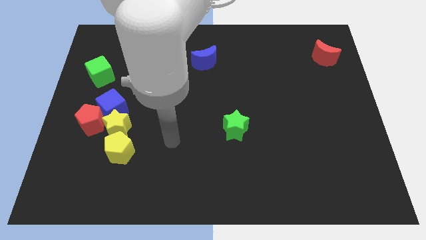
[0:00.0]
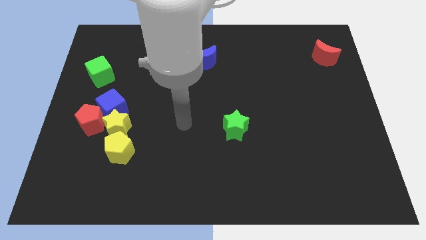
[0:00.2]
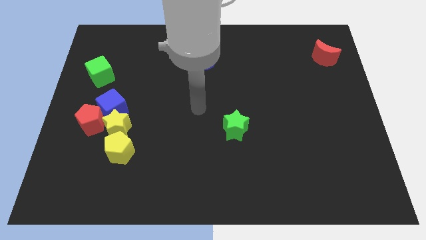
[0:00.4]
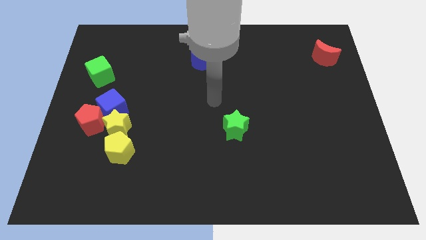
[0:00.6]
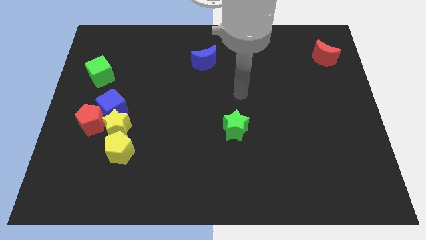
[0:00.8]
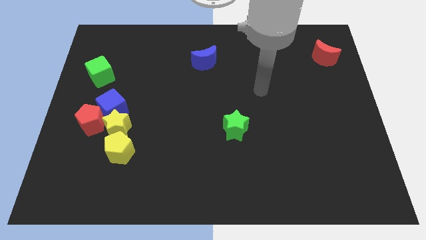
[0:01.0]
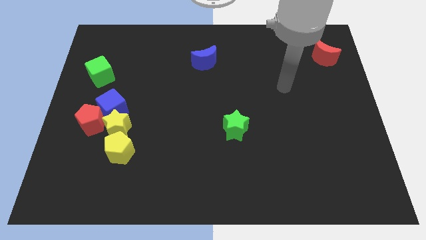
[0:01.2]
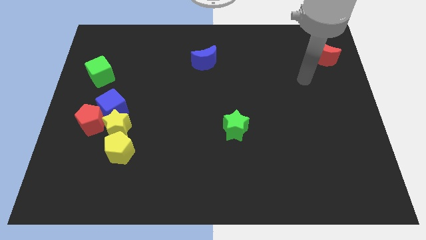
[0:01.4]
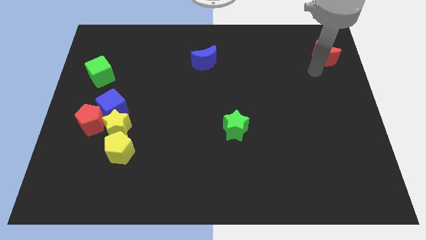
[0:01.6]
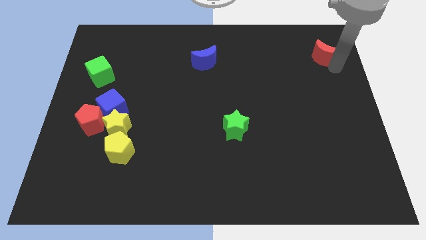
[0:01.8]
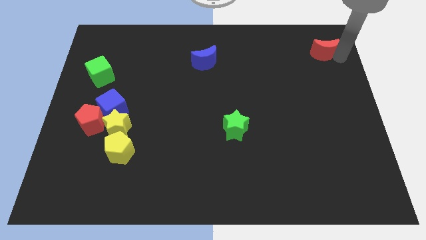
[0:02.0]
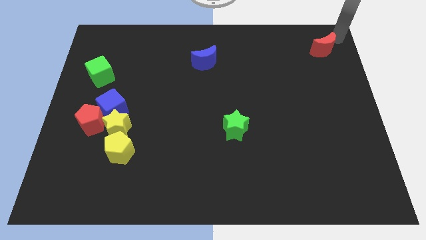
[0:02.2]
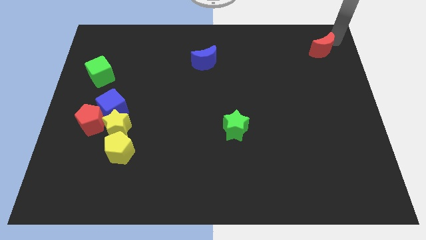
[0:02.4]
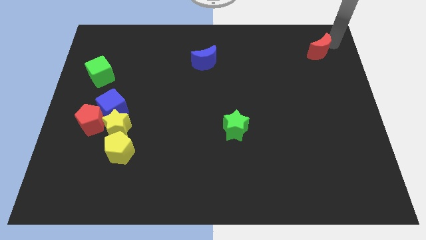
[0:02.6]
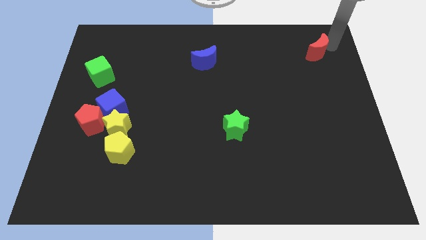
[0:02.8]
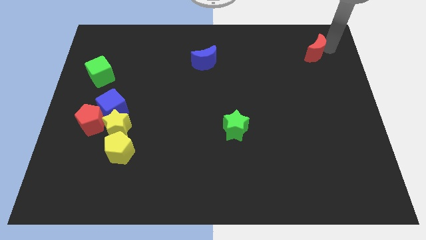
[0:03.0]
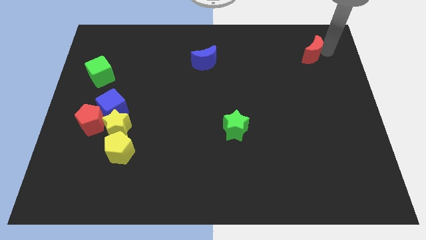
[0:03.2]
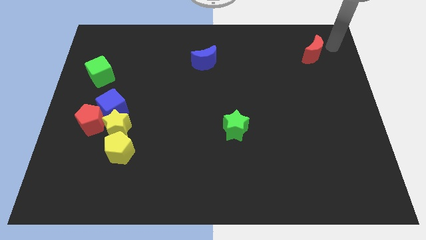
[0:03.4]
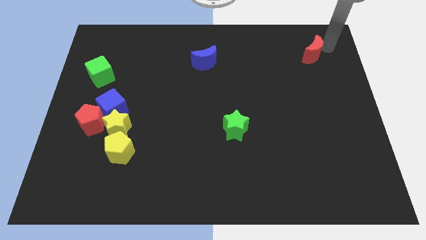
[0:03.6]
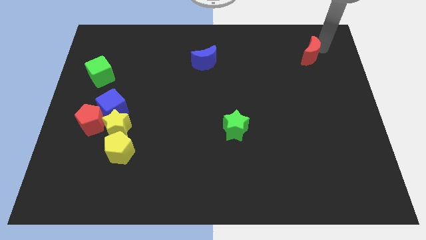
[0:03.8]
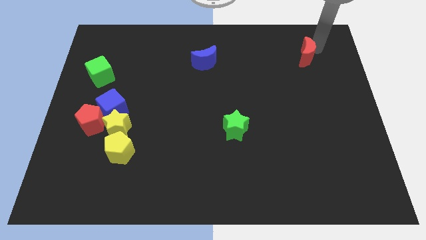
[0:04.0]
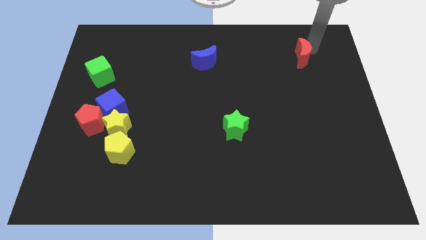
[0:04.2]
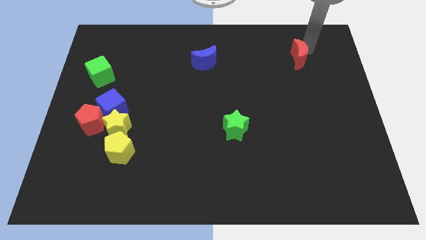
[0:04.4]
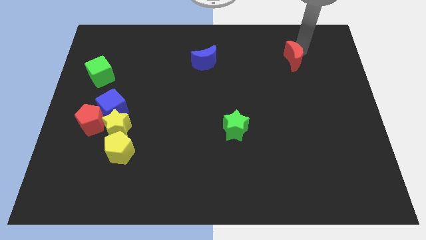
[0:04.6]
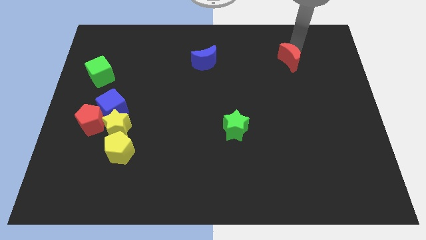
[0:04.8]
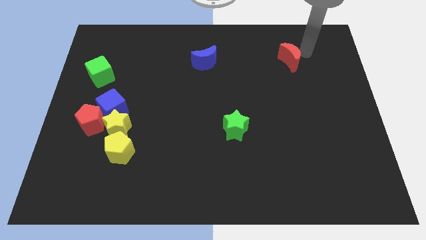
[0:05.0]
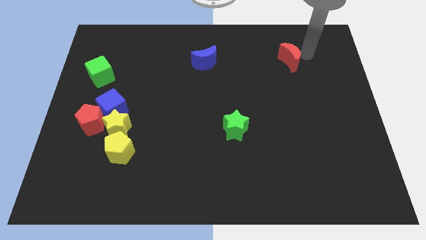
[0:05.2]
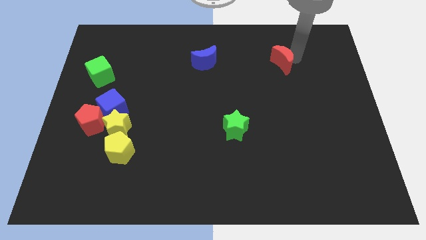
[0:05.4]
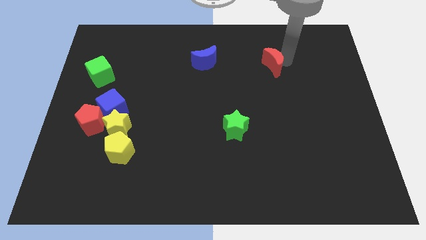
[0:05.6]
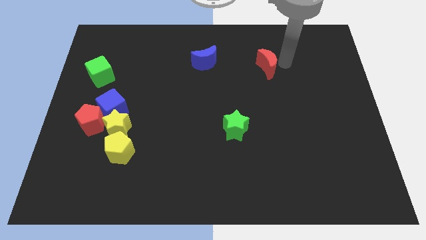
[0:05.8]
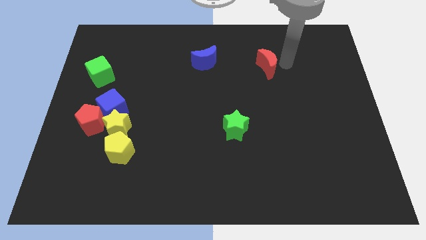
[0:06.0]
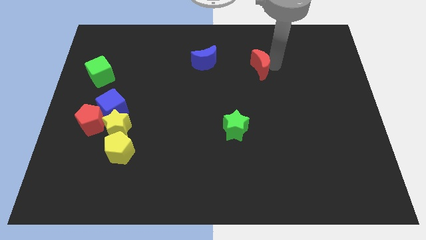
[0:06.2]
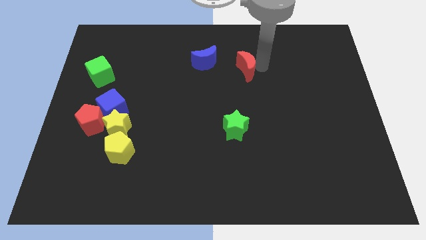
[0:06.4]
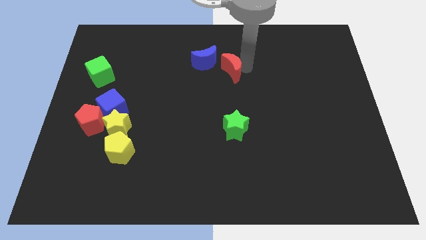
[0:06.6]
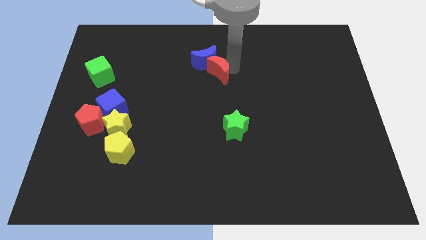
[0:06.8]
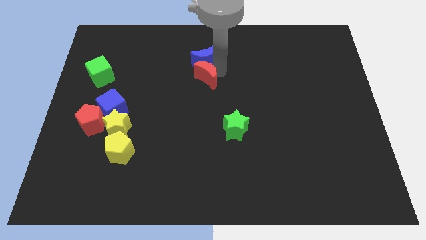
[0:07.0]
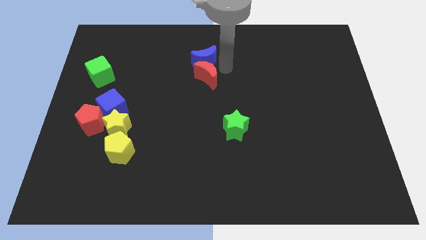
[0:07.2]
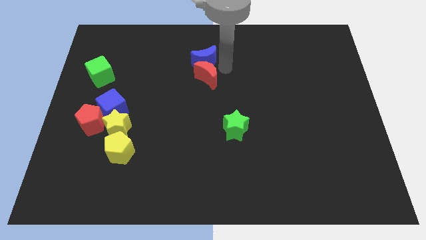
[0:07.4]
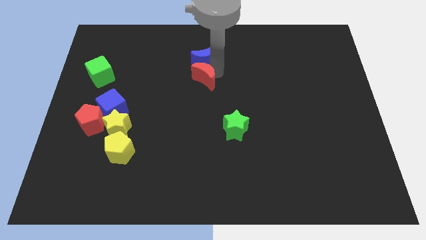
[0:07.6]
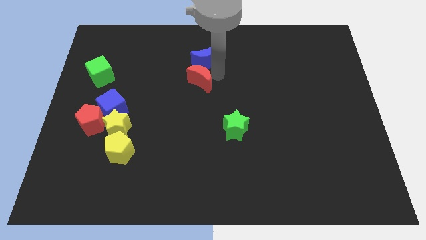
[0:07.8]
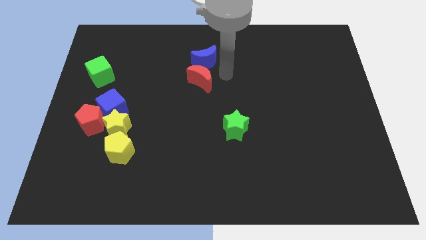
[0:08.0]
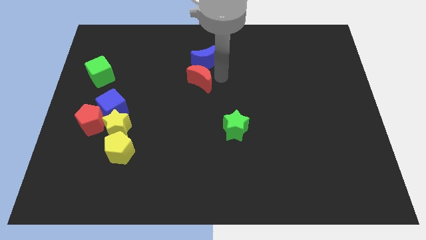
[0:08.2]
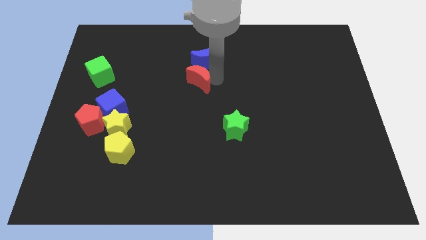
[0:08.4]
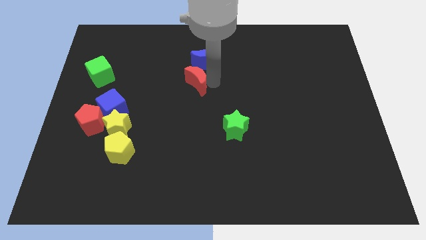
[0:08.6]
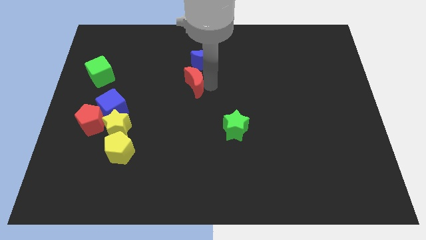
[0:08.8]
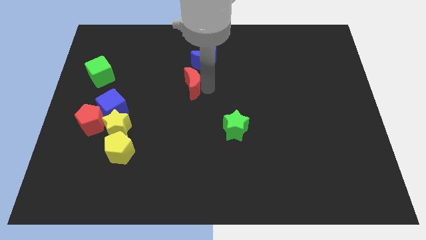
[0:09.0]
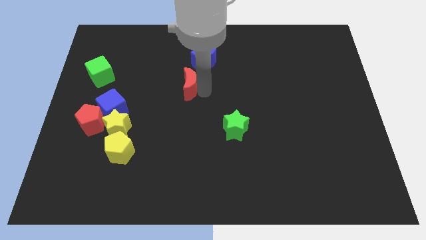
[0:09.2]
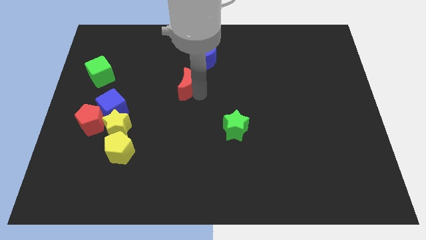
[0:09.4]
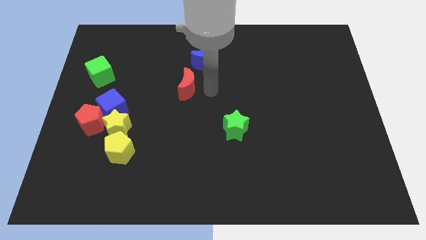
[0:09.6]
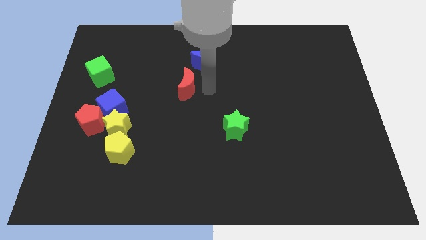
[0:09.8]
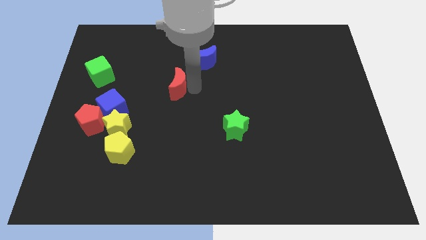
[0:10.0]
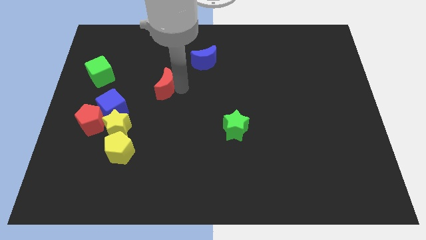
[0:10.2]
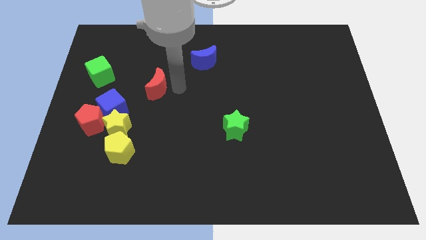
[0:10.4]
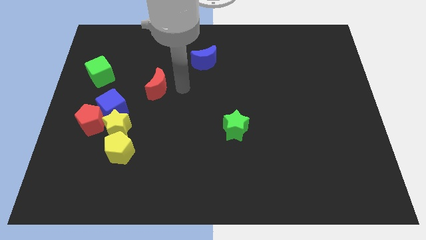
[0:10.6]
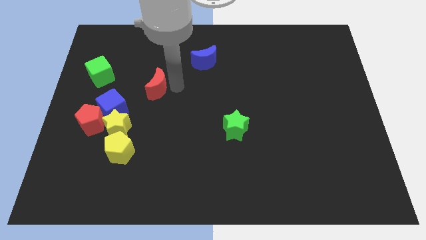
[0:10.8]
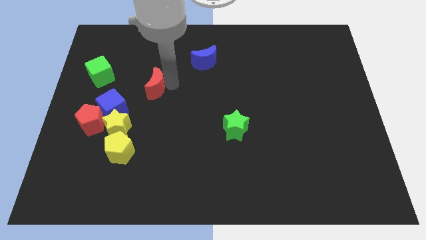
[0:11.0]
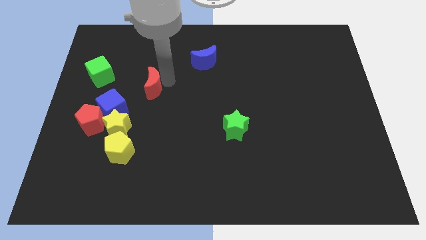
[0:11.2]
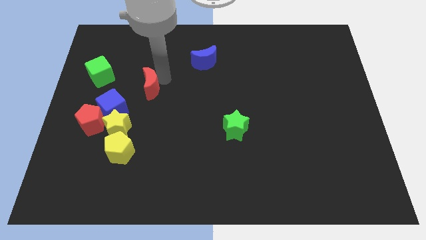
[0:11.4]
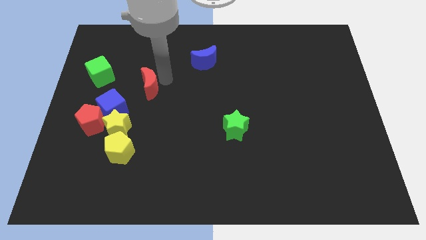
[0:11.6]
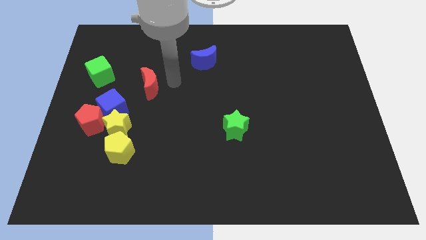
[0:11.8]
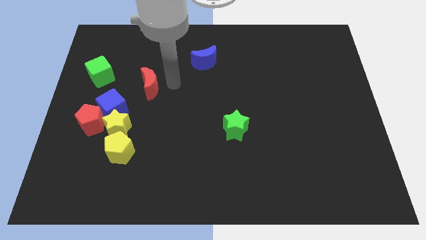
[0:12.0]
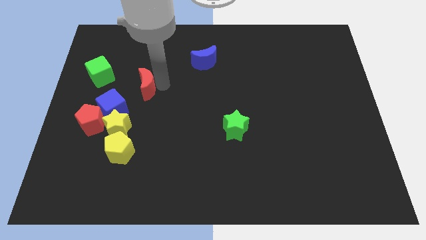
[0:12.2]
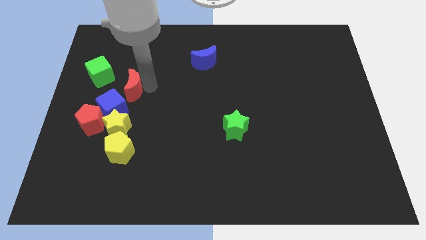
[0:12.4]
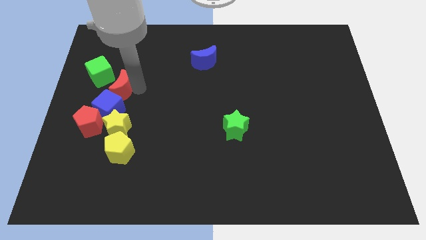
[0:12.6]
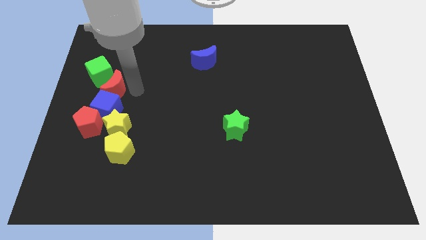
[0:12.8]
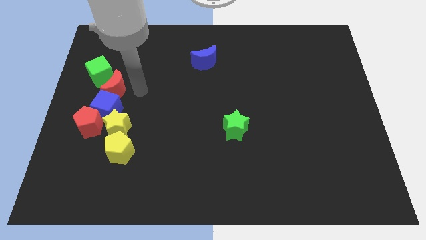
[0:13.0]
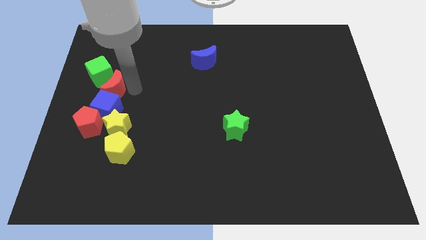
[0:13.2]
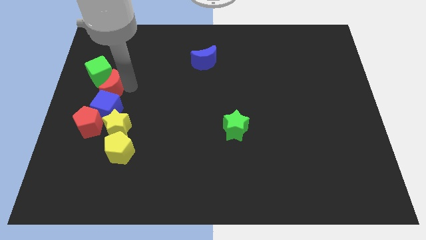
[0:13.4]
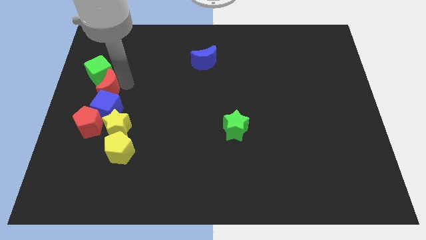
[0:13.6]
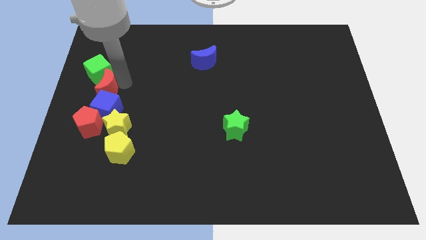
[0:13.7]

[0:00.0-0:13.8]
move the red moon to the left side
